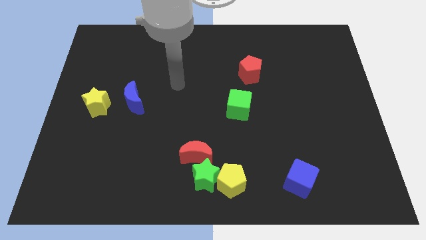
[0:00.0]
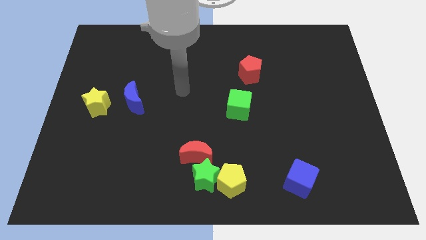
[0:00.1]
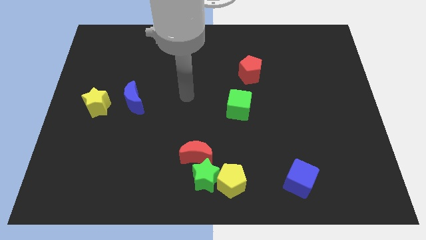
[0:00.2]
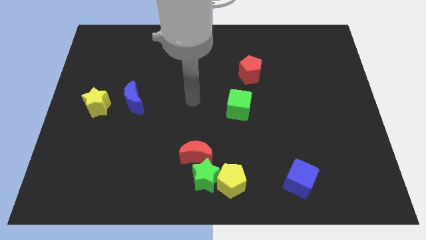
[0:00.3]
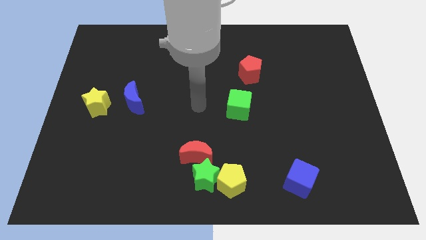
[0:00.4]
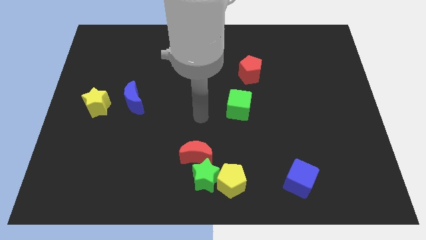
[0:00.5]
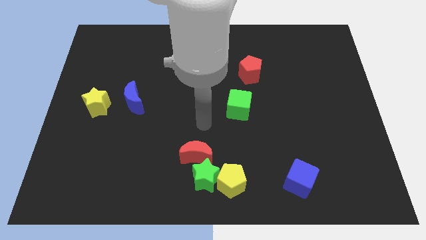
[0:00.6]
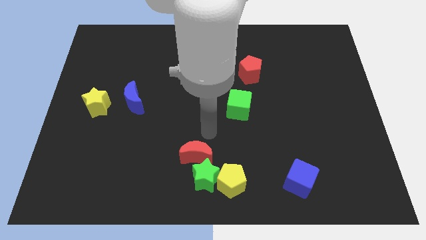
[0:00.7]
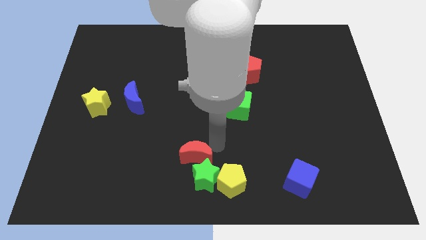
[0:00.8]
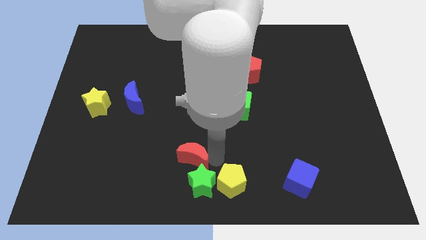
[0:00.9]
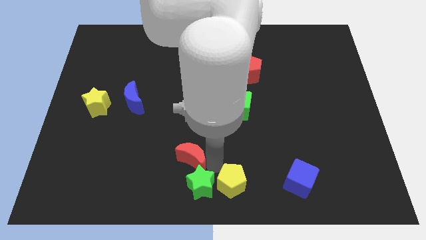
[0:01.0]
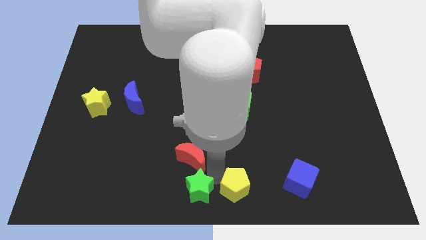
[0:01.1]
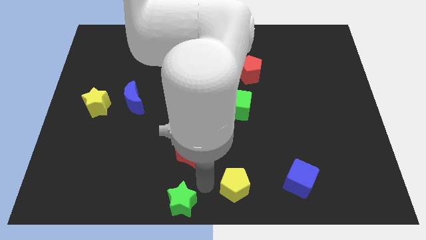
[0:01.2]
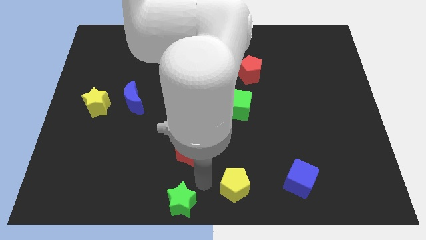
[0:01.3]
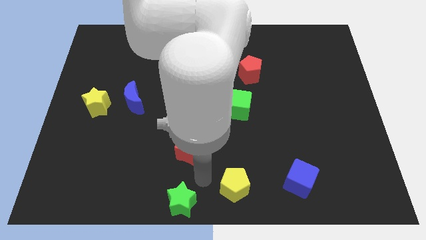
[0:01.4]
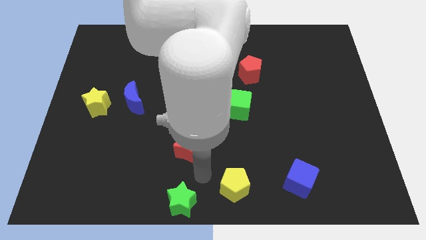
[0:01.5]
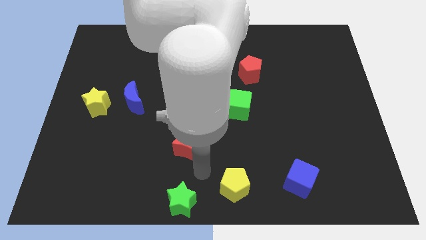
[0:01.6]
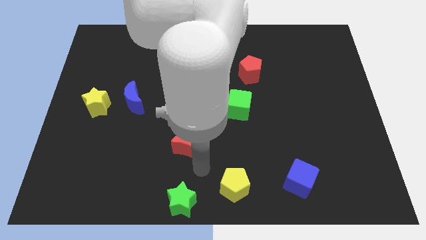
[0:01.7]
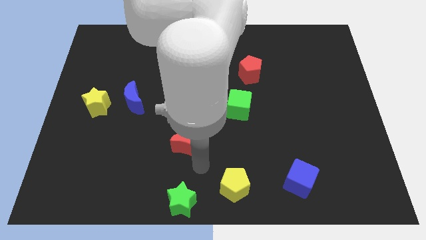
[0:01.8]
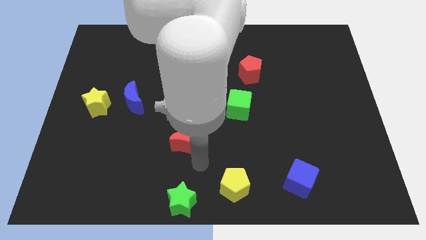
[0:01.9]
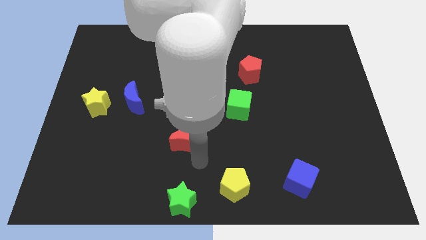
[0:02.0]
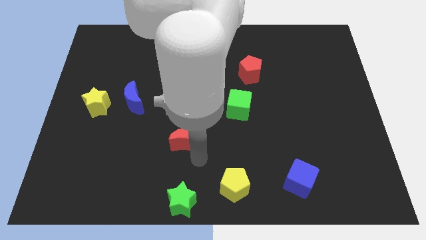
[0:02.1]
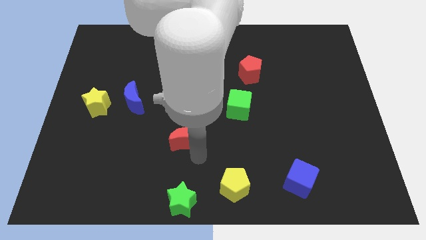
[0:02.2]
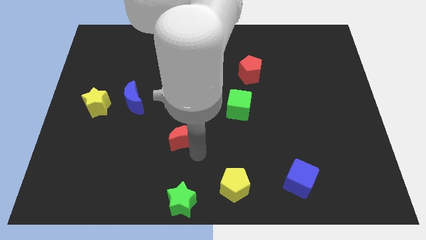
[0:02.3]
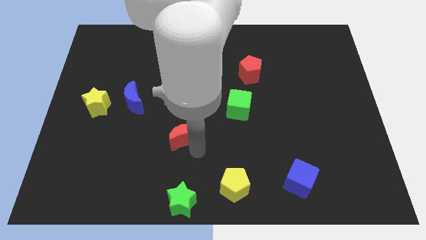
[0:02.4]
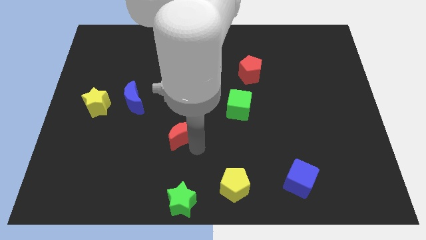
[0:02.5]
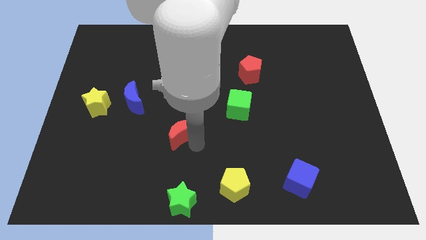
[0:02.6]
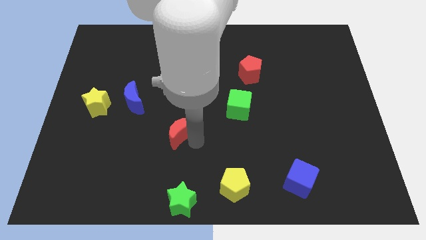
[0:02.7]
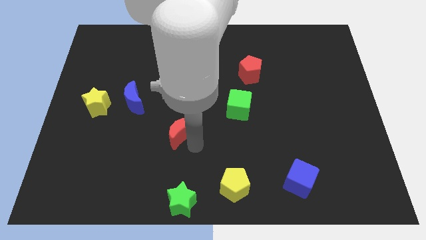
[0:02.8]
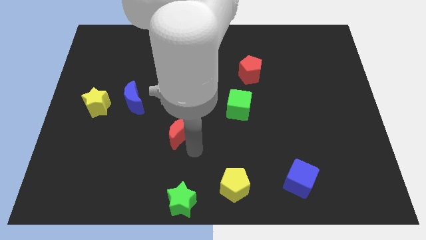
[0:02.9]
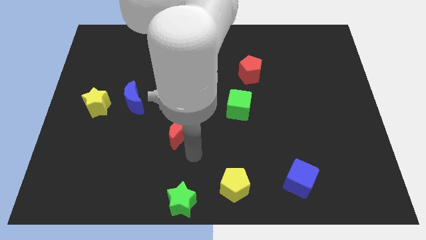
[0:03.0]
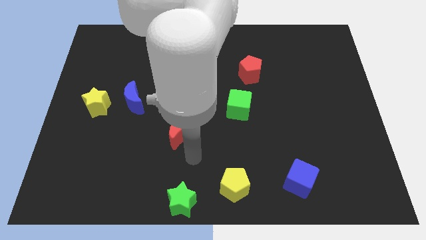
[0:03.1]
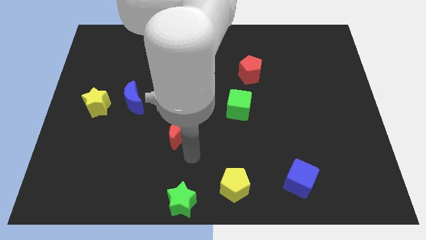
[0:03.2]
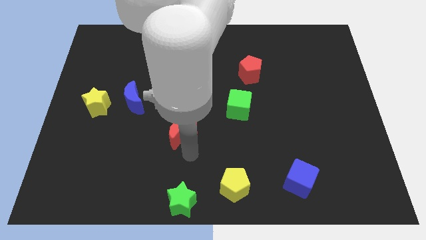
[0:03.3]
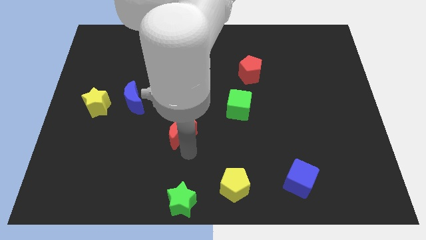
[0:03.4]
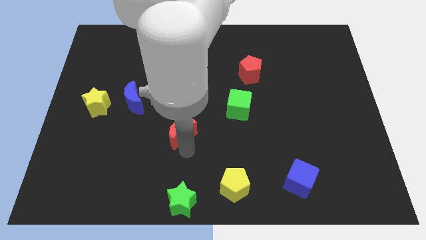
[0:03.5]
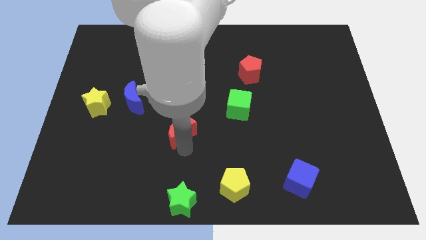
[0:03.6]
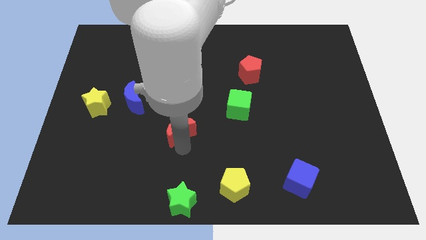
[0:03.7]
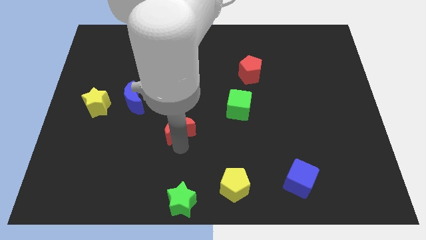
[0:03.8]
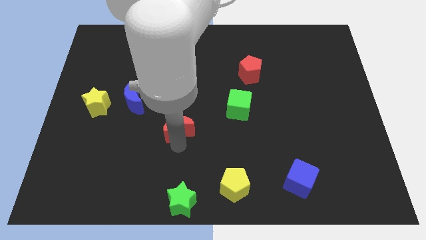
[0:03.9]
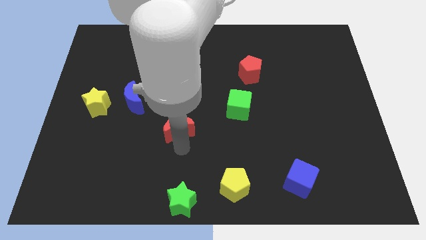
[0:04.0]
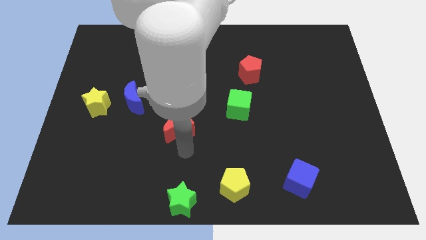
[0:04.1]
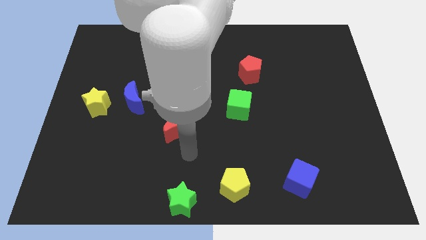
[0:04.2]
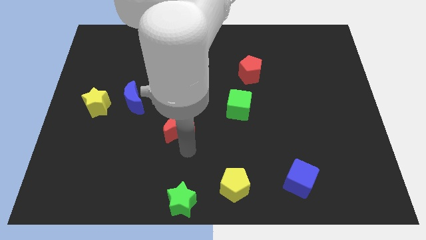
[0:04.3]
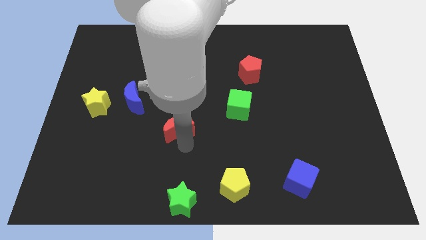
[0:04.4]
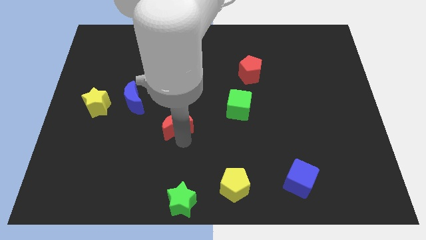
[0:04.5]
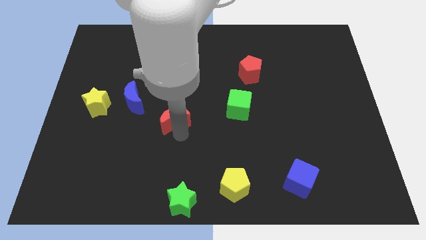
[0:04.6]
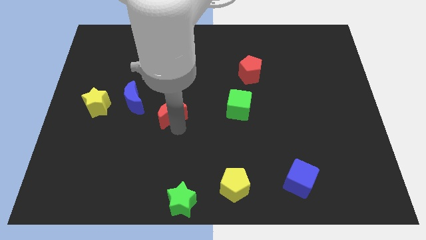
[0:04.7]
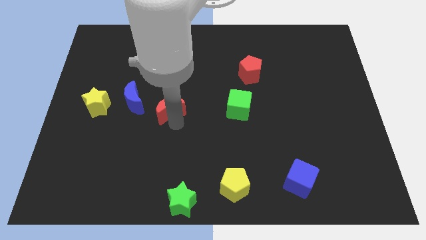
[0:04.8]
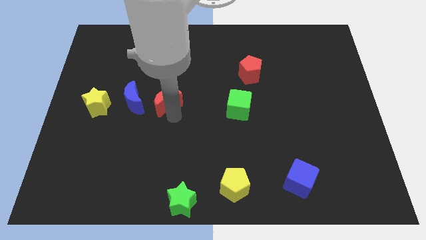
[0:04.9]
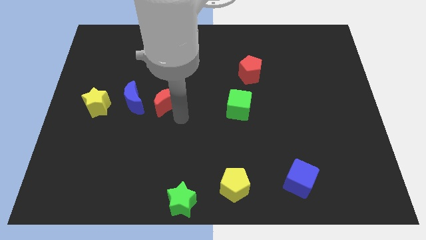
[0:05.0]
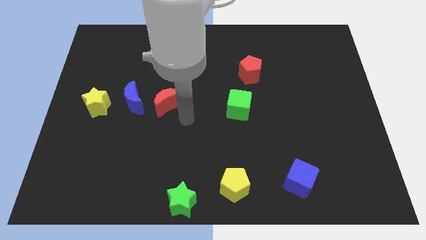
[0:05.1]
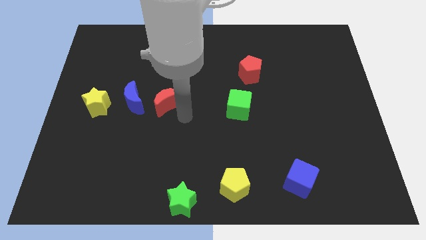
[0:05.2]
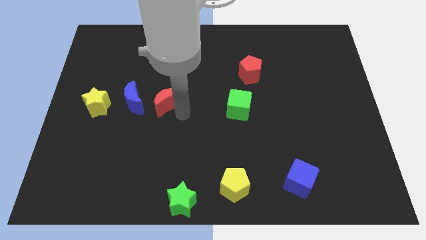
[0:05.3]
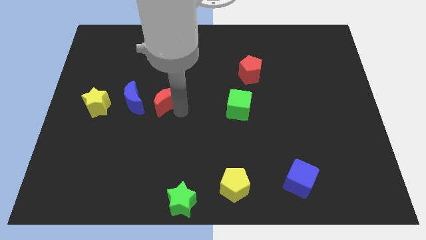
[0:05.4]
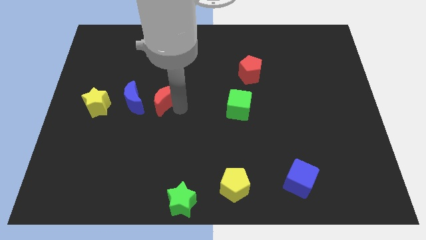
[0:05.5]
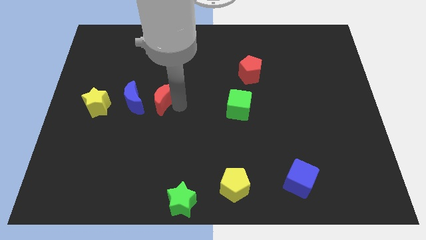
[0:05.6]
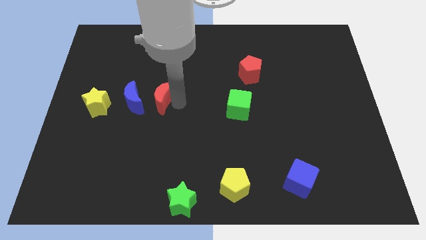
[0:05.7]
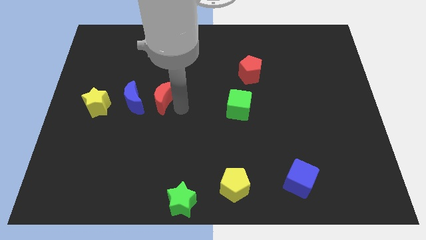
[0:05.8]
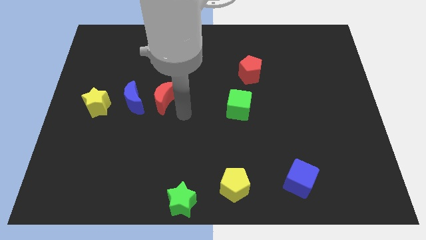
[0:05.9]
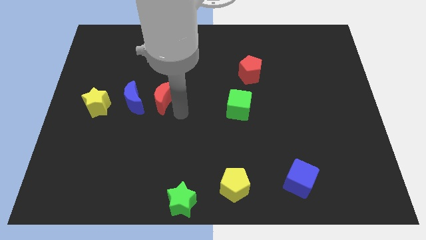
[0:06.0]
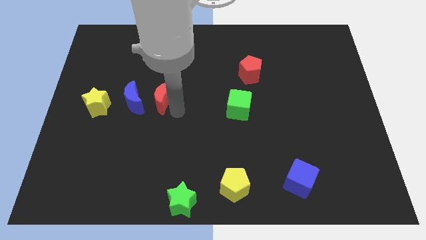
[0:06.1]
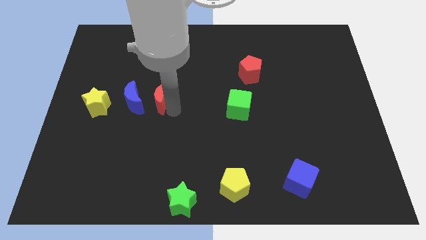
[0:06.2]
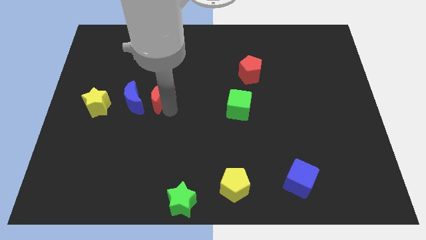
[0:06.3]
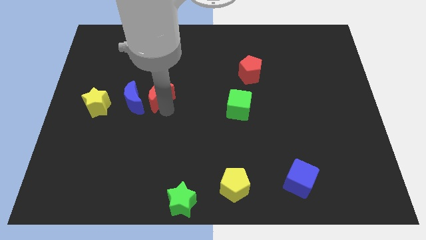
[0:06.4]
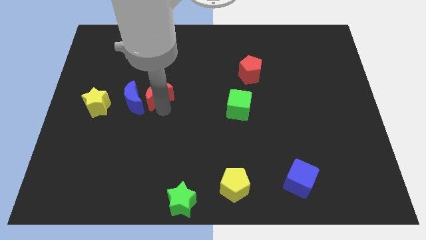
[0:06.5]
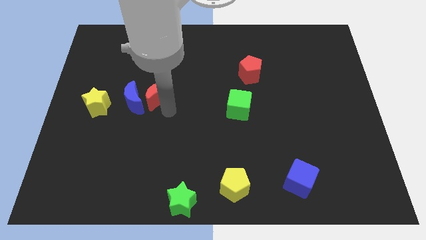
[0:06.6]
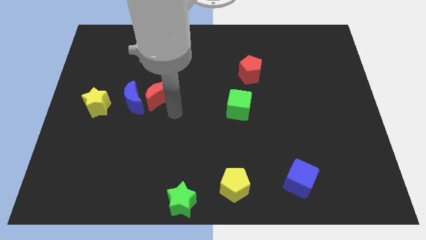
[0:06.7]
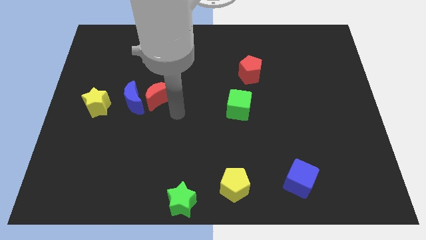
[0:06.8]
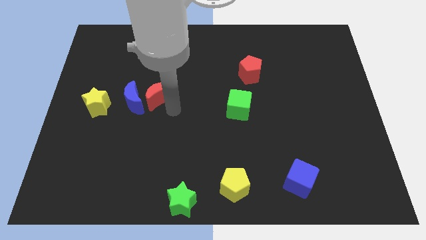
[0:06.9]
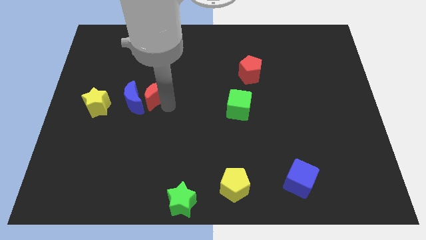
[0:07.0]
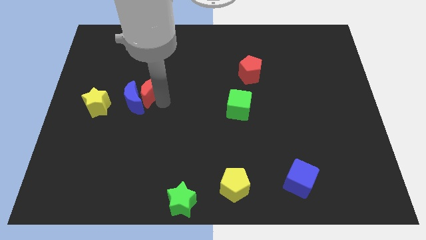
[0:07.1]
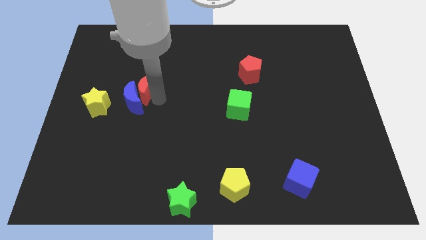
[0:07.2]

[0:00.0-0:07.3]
move the red moon diagonally up and left

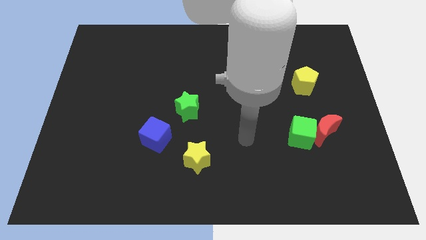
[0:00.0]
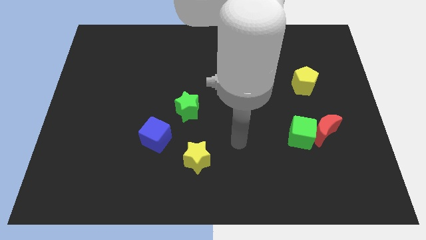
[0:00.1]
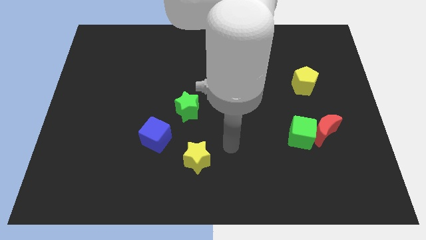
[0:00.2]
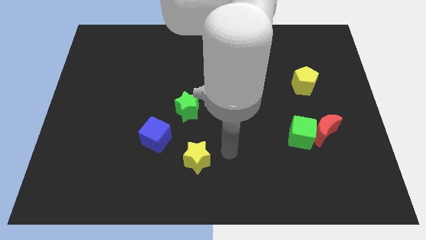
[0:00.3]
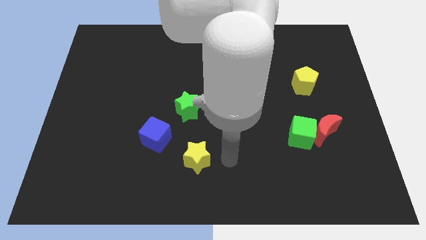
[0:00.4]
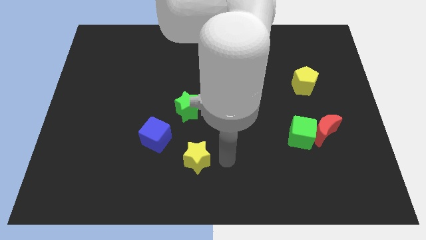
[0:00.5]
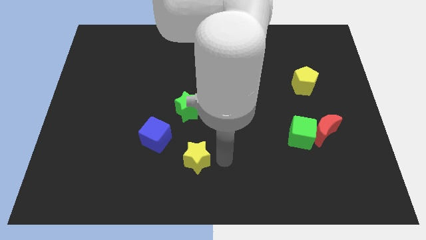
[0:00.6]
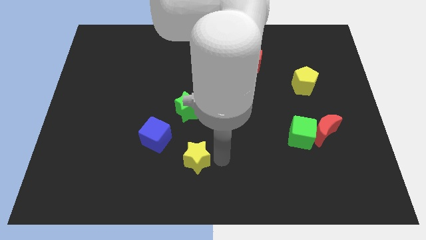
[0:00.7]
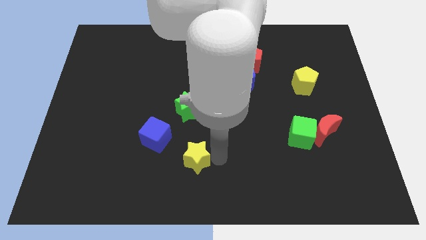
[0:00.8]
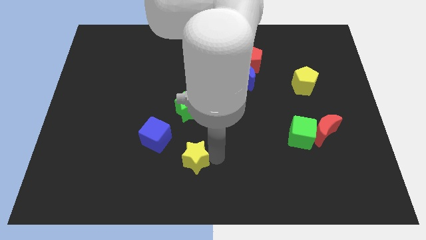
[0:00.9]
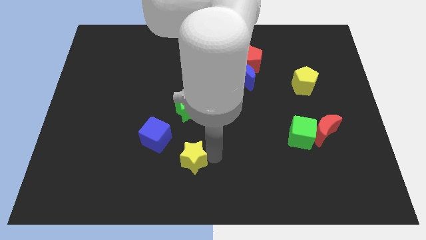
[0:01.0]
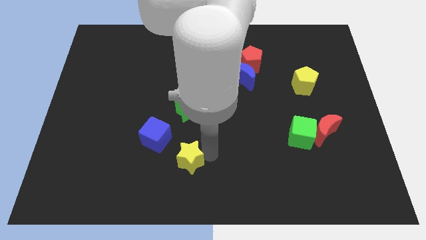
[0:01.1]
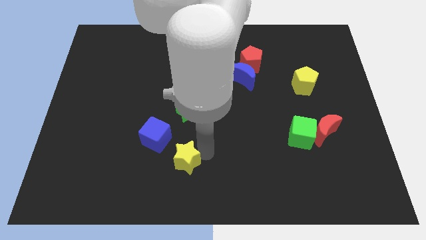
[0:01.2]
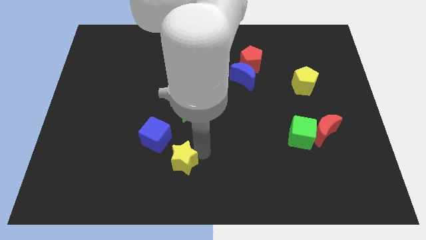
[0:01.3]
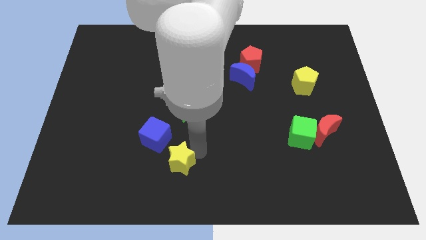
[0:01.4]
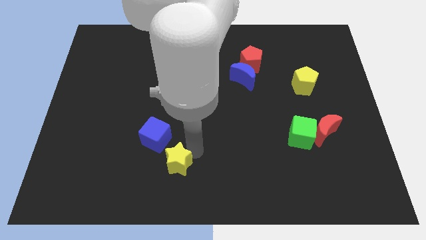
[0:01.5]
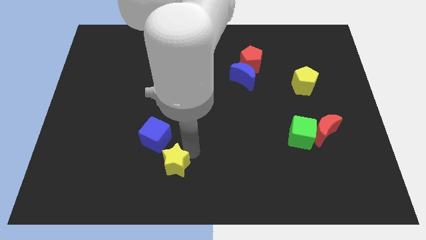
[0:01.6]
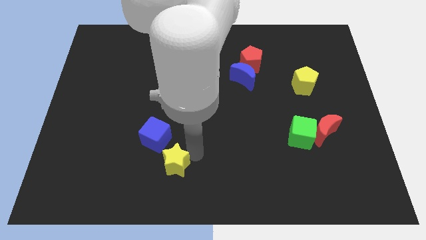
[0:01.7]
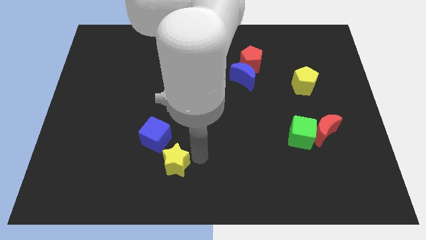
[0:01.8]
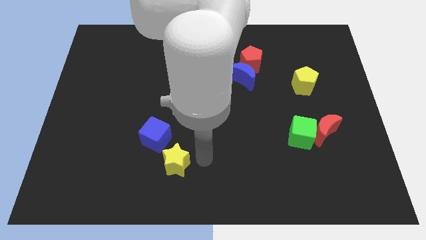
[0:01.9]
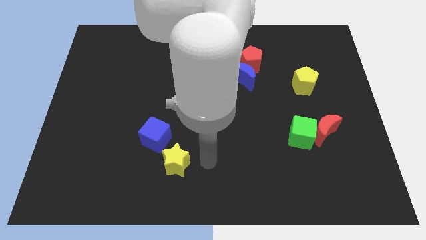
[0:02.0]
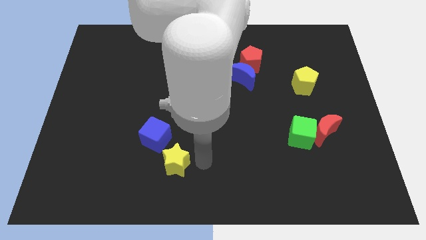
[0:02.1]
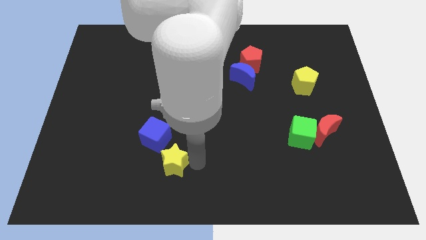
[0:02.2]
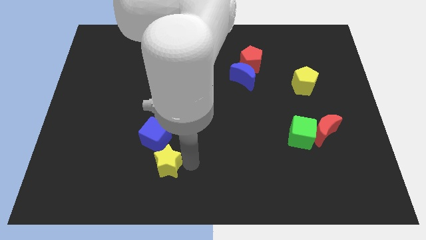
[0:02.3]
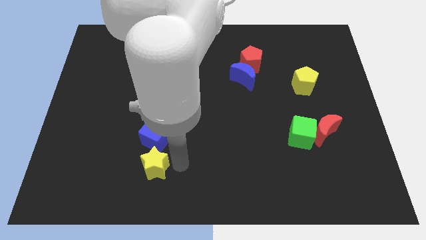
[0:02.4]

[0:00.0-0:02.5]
slightly move the yellow star left
